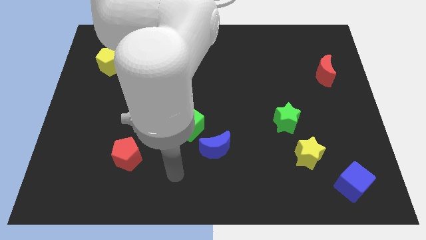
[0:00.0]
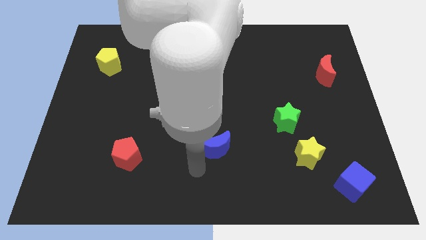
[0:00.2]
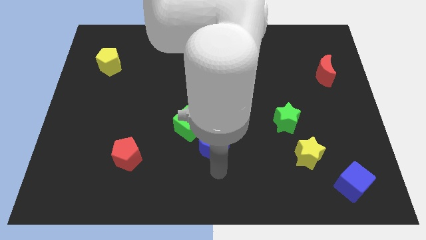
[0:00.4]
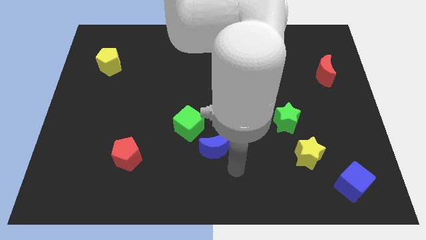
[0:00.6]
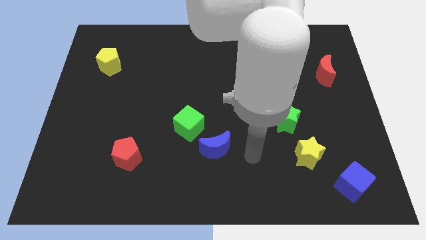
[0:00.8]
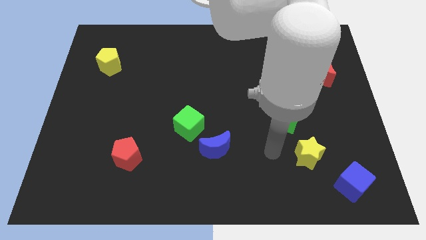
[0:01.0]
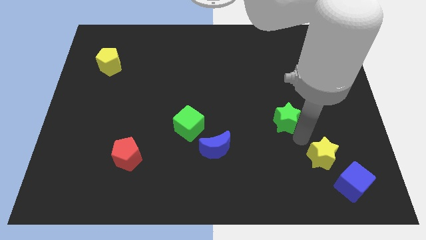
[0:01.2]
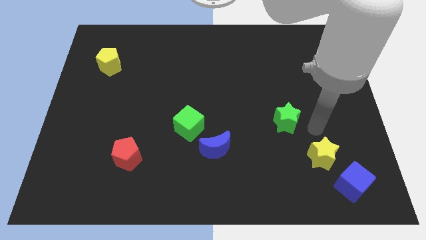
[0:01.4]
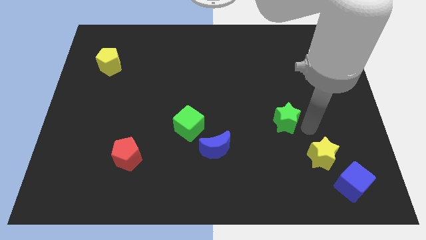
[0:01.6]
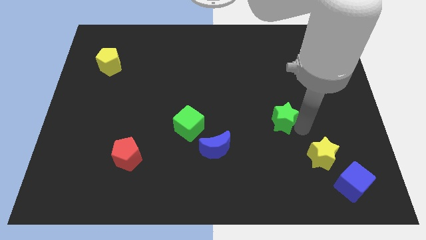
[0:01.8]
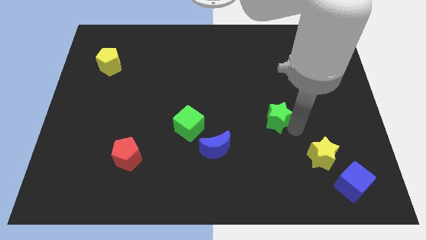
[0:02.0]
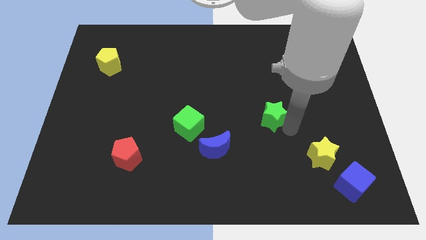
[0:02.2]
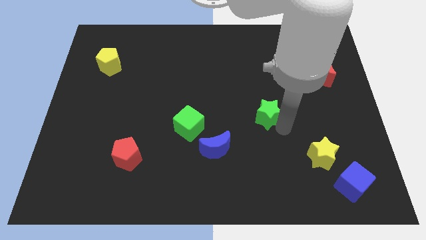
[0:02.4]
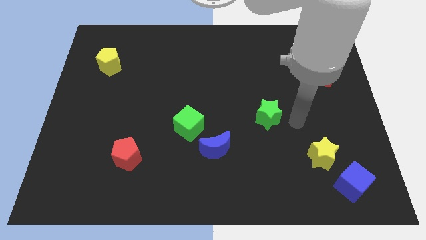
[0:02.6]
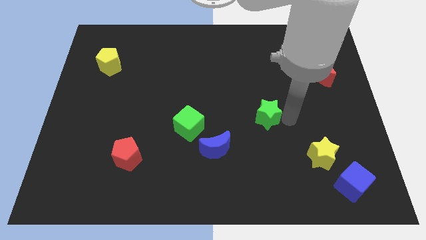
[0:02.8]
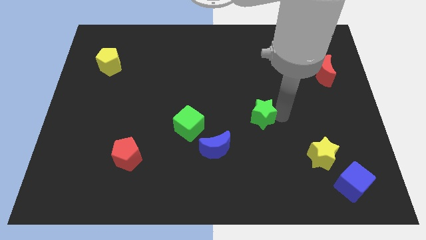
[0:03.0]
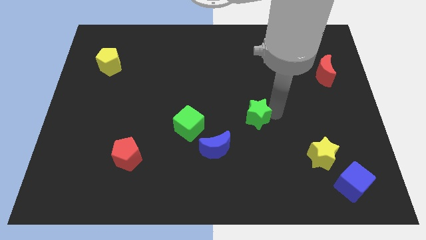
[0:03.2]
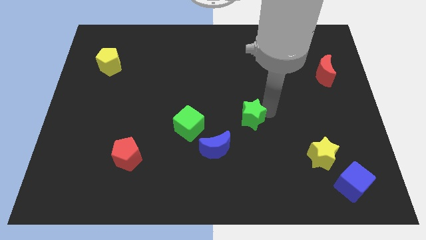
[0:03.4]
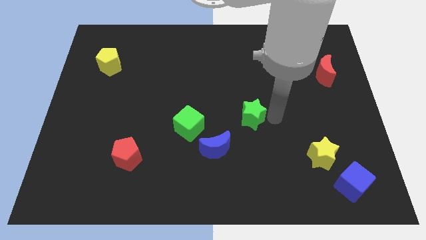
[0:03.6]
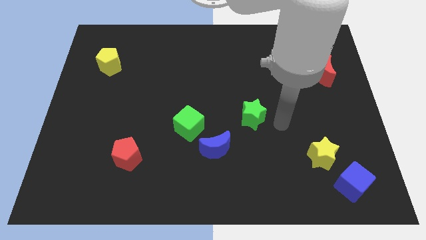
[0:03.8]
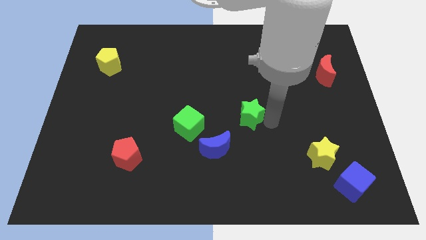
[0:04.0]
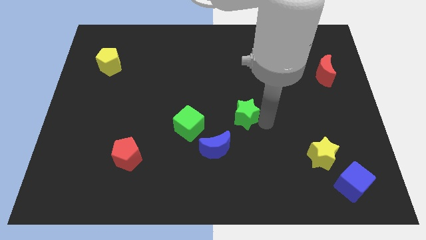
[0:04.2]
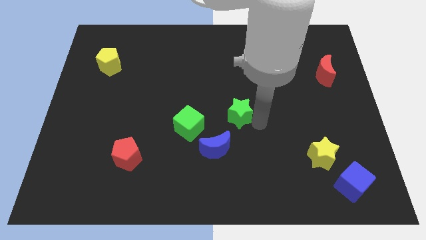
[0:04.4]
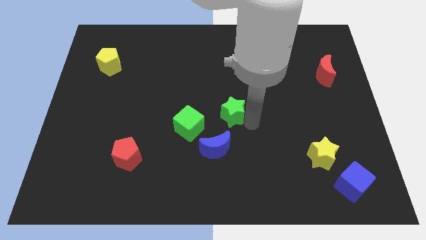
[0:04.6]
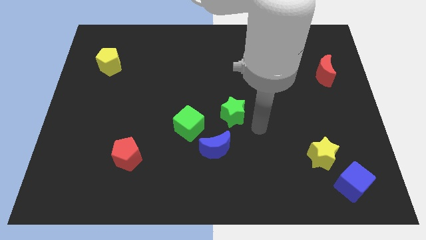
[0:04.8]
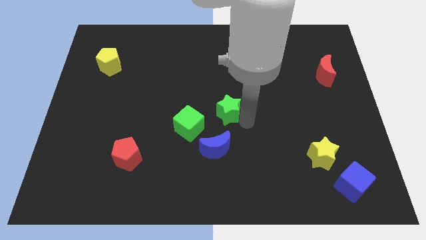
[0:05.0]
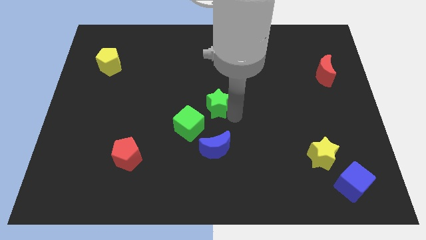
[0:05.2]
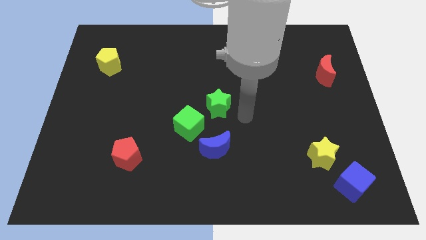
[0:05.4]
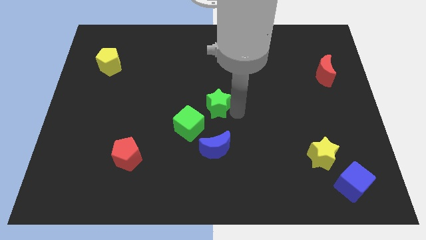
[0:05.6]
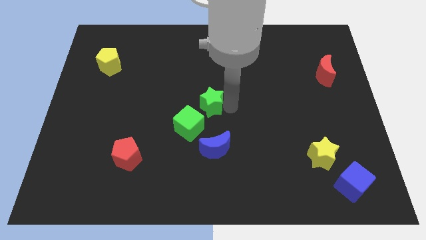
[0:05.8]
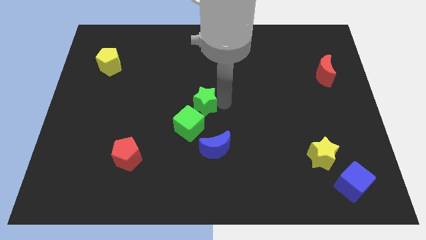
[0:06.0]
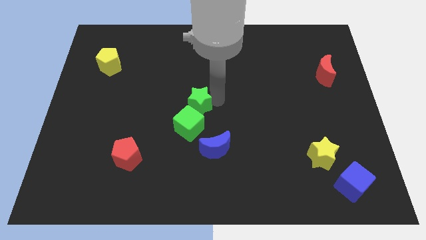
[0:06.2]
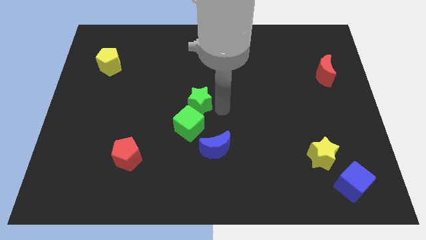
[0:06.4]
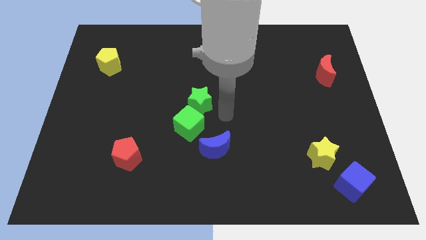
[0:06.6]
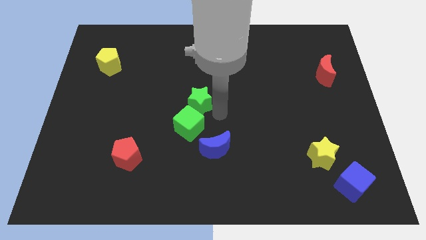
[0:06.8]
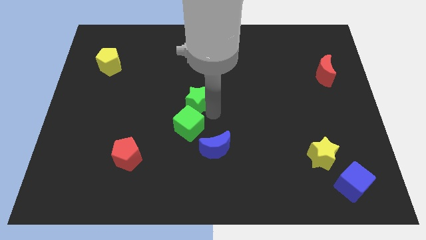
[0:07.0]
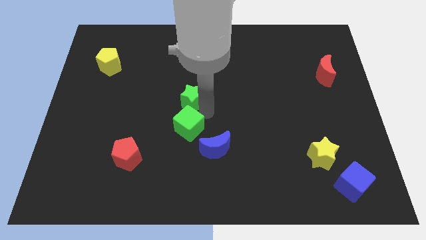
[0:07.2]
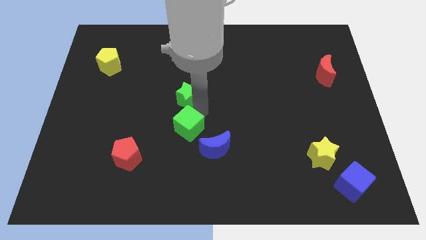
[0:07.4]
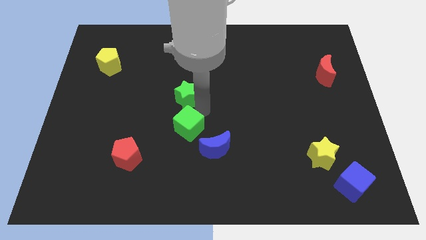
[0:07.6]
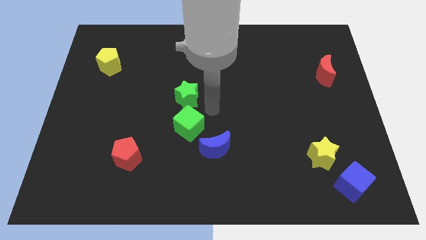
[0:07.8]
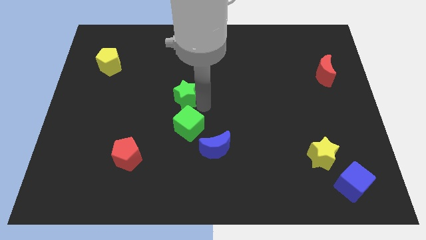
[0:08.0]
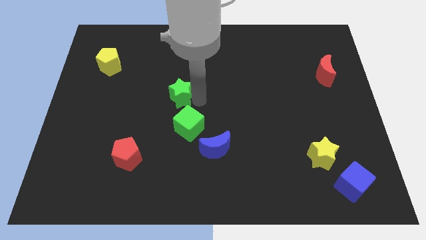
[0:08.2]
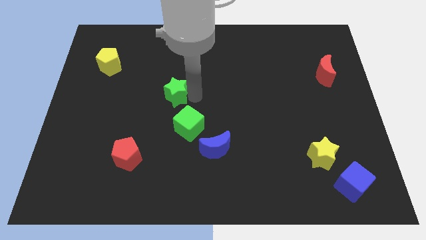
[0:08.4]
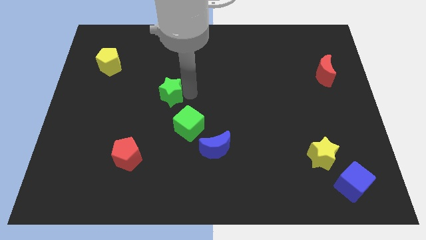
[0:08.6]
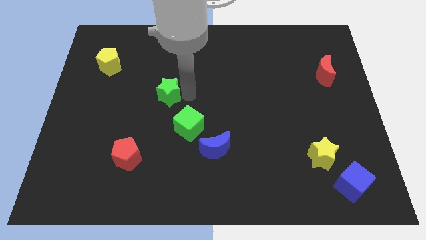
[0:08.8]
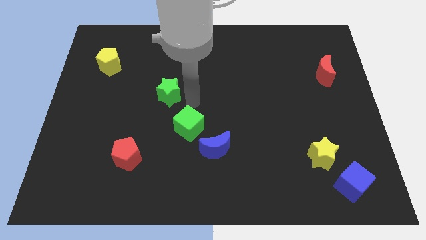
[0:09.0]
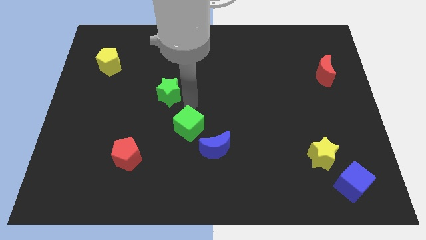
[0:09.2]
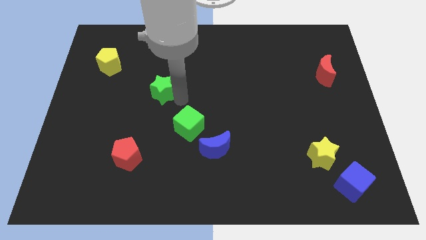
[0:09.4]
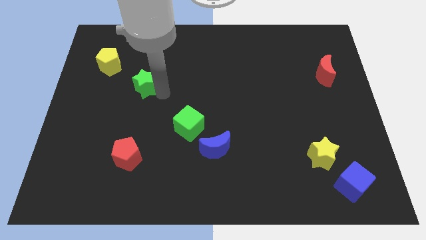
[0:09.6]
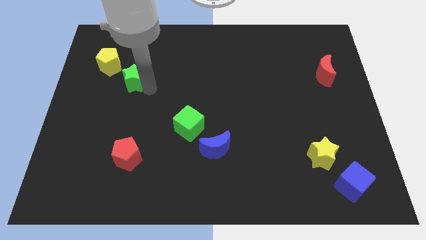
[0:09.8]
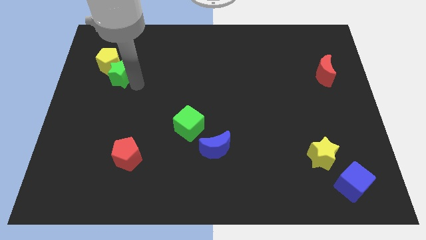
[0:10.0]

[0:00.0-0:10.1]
push the green star to the yellow pentagon

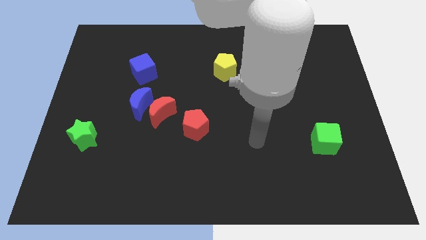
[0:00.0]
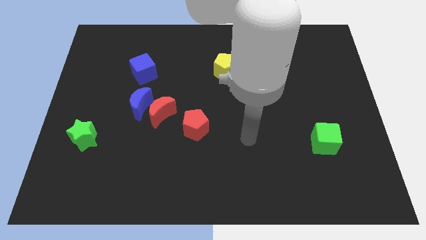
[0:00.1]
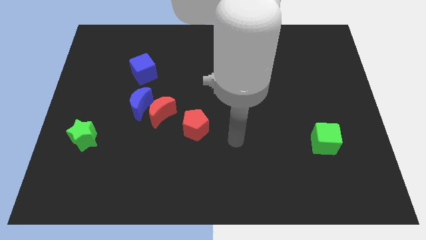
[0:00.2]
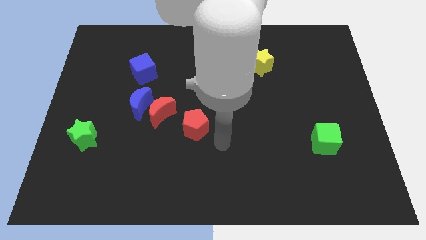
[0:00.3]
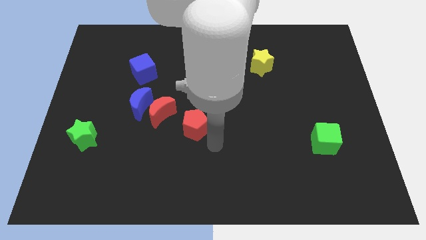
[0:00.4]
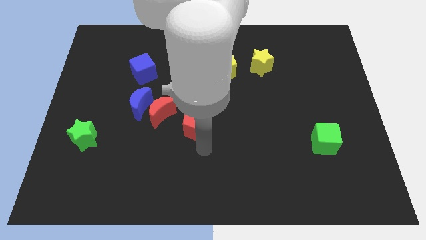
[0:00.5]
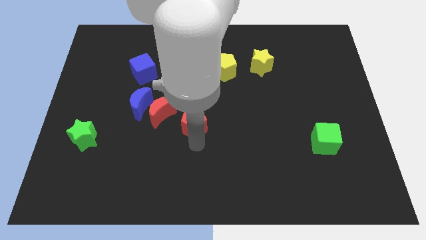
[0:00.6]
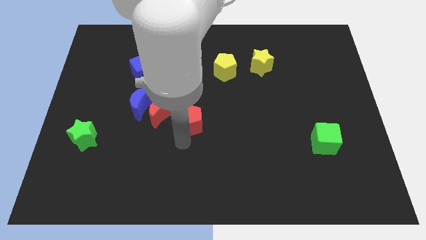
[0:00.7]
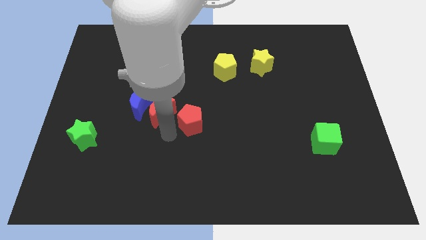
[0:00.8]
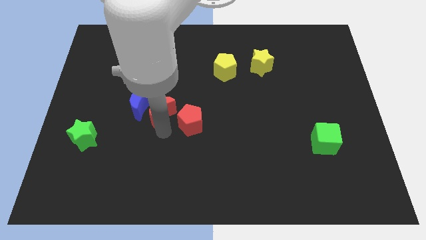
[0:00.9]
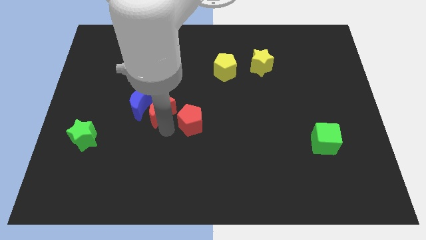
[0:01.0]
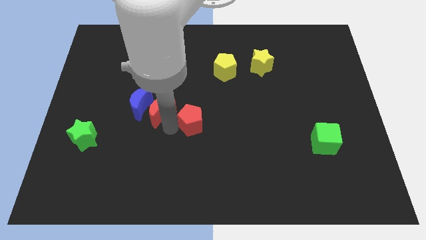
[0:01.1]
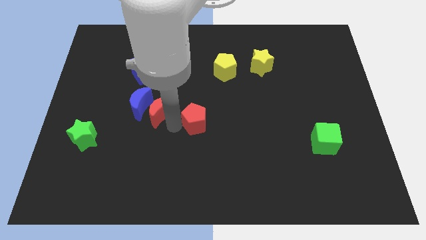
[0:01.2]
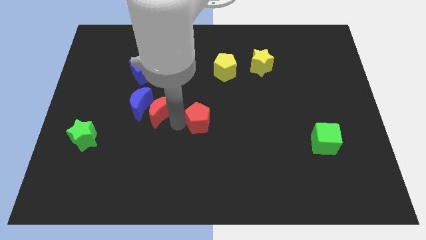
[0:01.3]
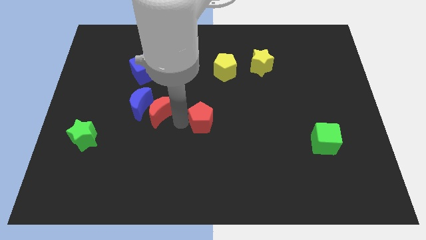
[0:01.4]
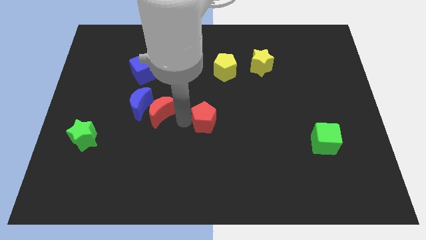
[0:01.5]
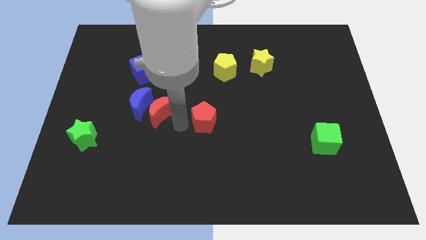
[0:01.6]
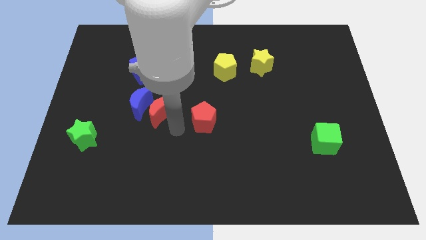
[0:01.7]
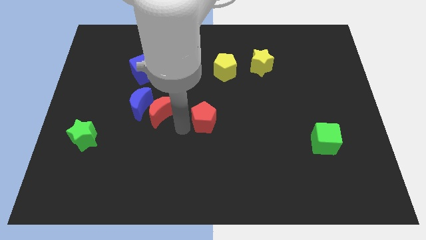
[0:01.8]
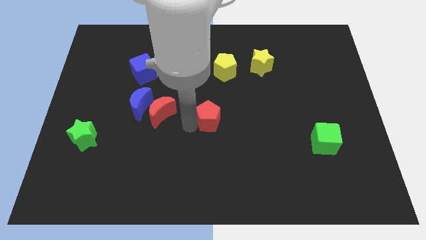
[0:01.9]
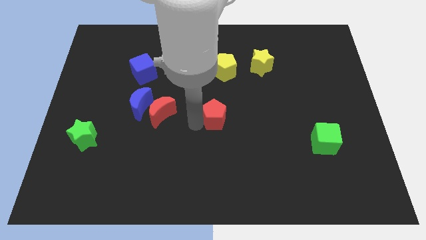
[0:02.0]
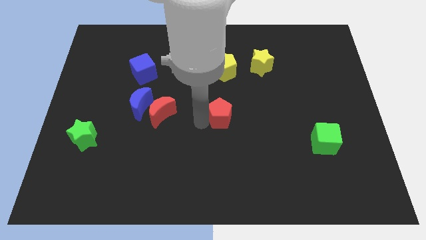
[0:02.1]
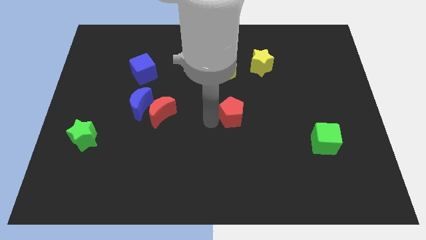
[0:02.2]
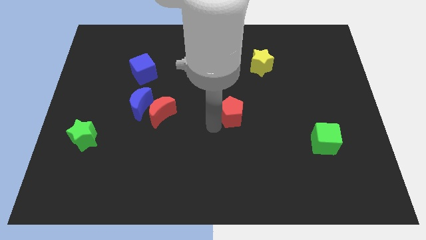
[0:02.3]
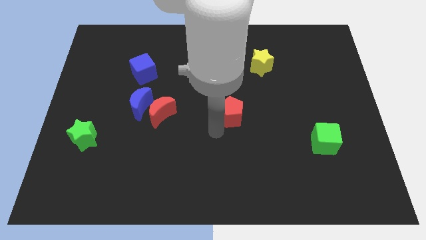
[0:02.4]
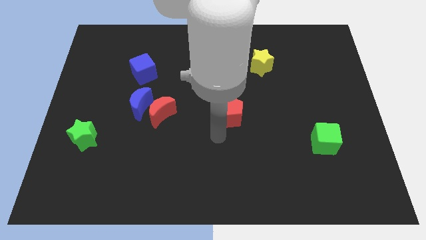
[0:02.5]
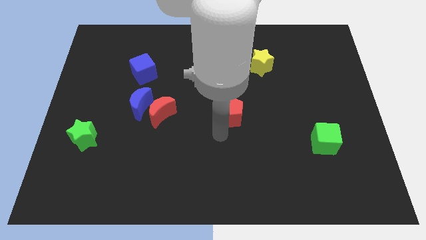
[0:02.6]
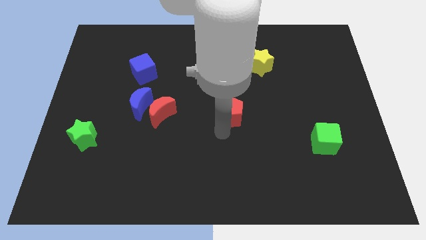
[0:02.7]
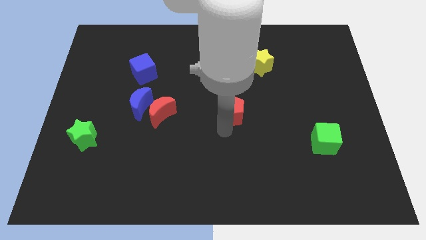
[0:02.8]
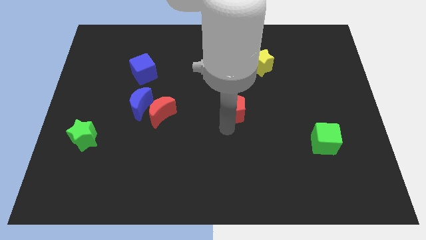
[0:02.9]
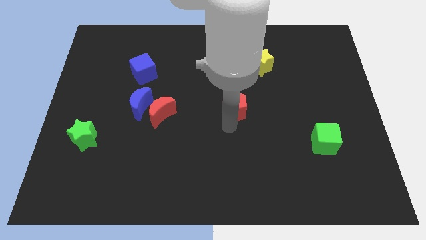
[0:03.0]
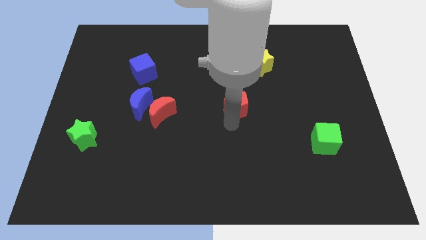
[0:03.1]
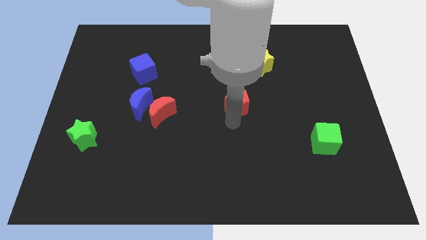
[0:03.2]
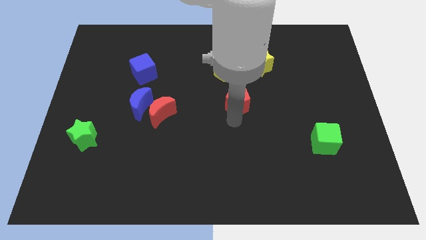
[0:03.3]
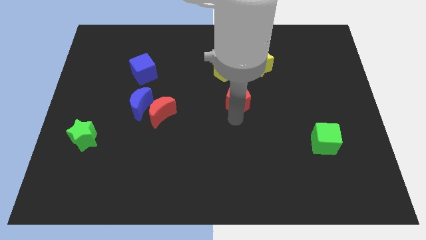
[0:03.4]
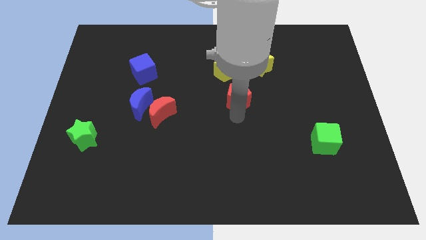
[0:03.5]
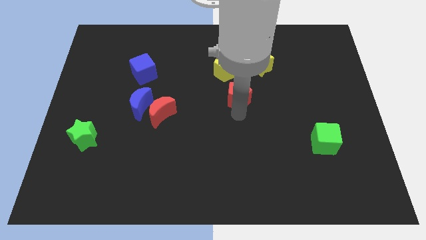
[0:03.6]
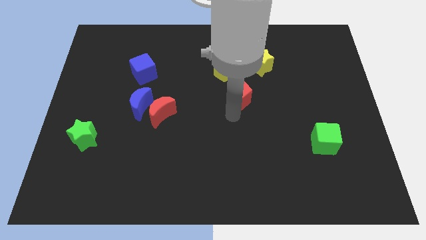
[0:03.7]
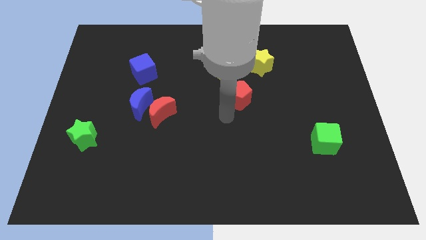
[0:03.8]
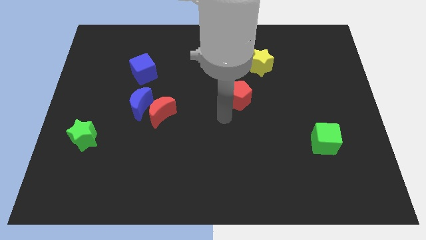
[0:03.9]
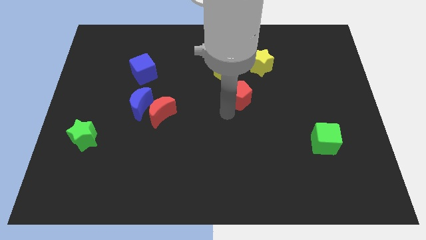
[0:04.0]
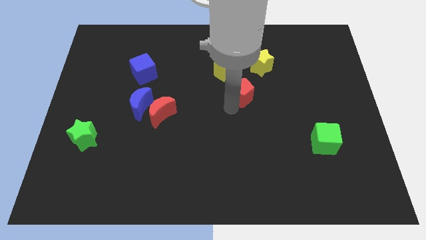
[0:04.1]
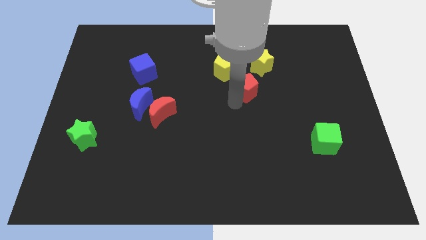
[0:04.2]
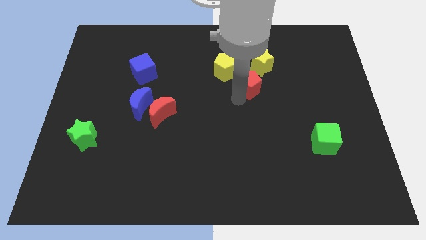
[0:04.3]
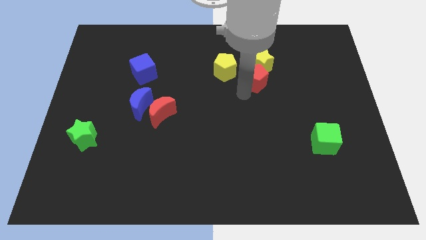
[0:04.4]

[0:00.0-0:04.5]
move the red pentagon next to the yellow star
